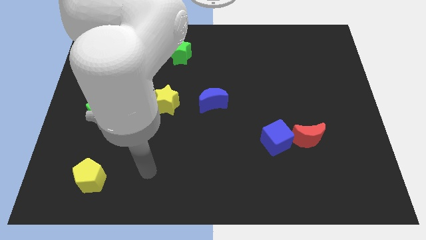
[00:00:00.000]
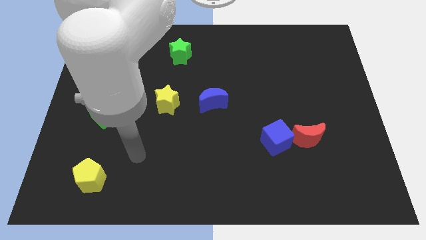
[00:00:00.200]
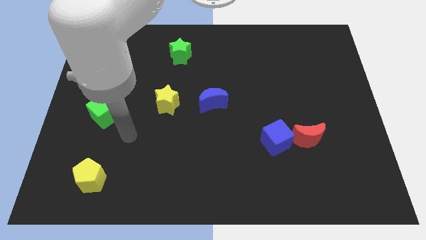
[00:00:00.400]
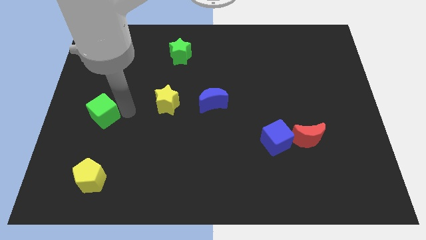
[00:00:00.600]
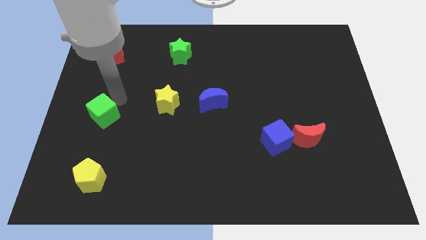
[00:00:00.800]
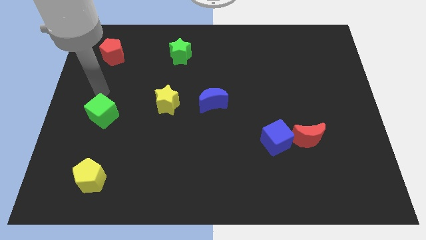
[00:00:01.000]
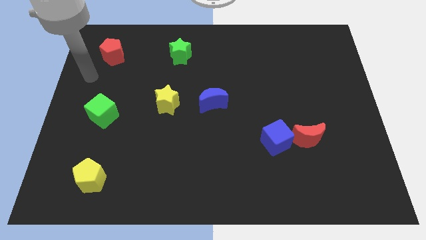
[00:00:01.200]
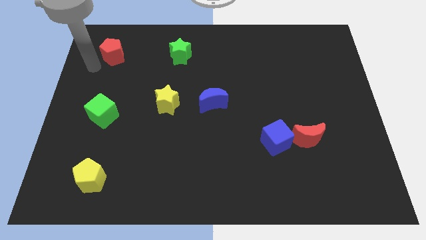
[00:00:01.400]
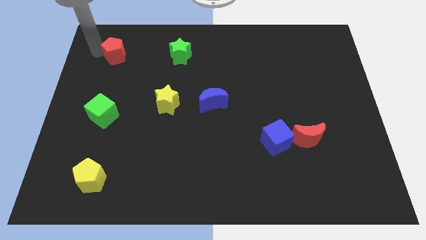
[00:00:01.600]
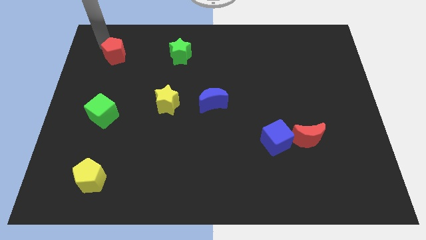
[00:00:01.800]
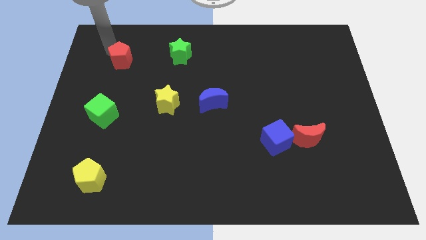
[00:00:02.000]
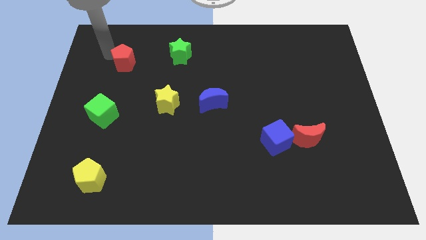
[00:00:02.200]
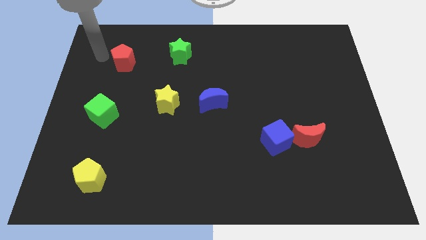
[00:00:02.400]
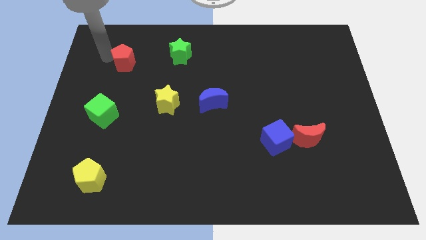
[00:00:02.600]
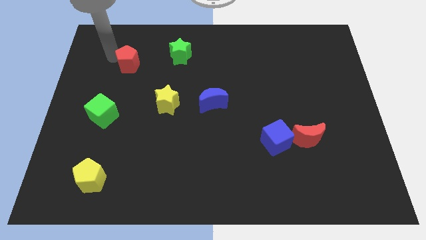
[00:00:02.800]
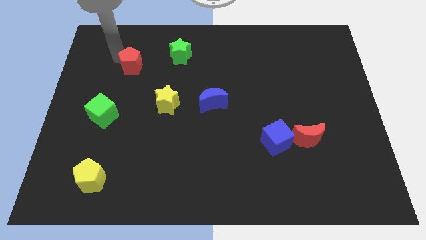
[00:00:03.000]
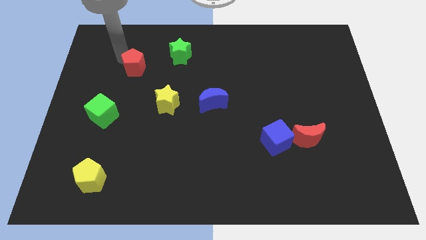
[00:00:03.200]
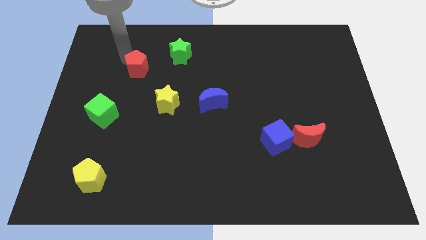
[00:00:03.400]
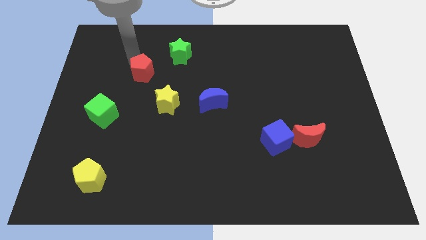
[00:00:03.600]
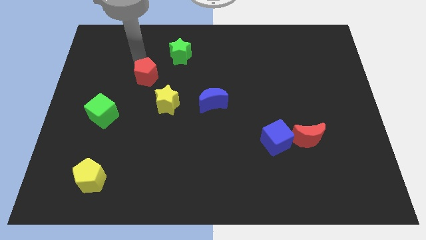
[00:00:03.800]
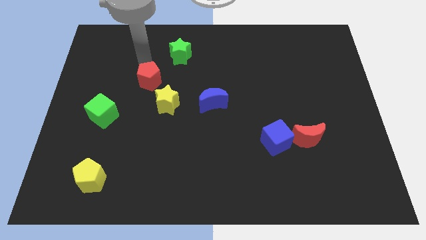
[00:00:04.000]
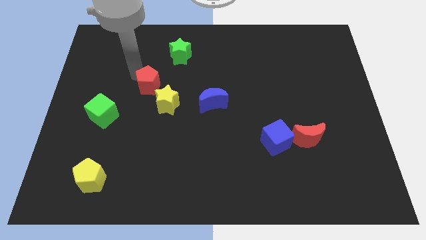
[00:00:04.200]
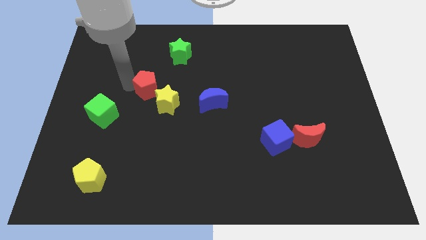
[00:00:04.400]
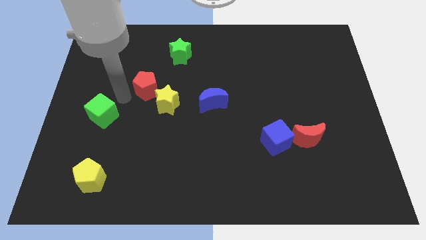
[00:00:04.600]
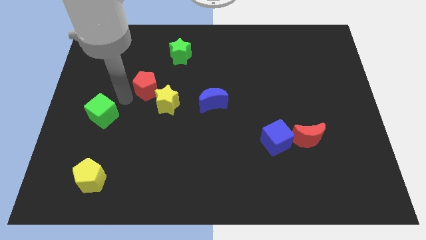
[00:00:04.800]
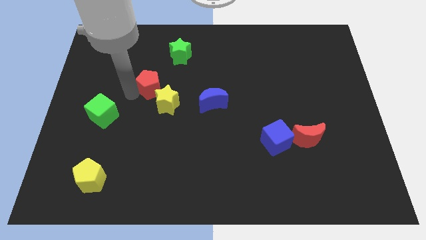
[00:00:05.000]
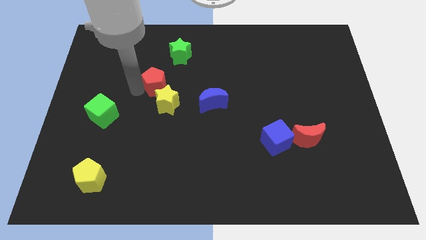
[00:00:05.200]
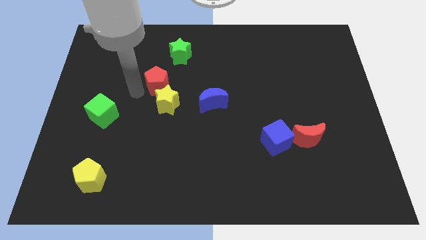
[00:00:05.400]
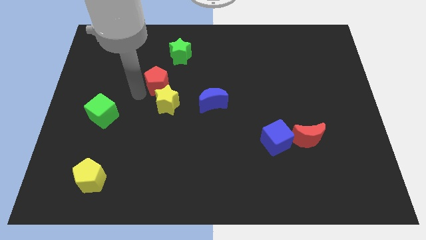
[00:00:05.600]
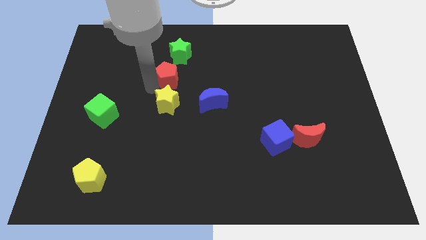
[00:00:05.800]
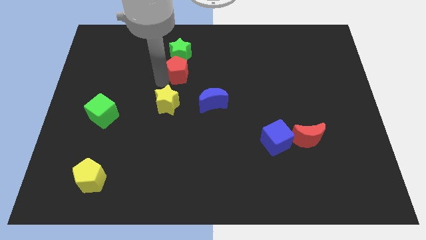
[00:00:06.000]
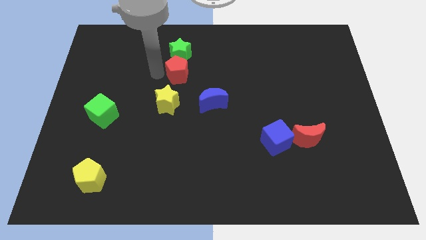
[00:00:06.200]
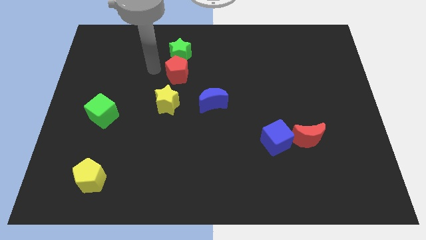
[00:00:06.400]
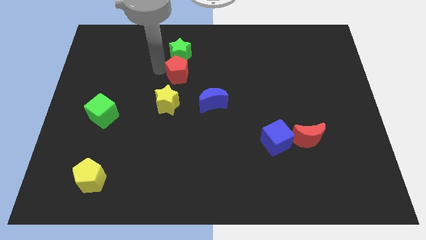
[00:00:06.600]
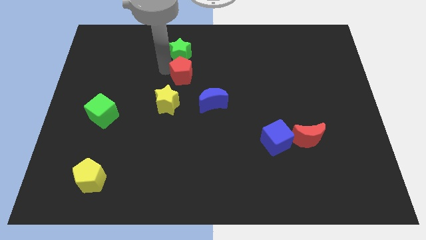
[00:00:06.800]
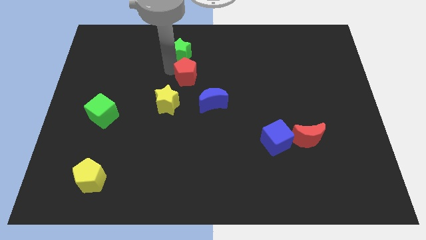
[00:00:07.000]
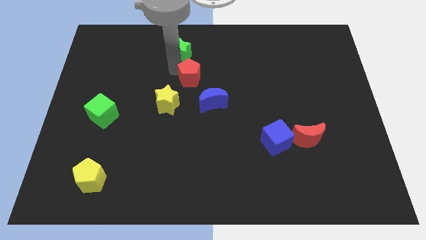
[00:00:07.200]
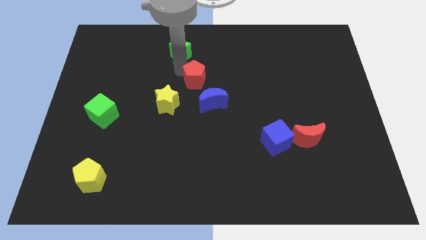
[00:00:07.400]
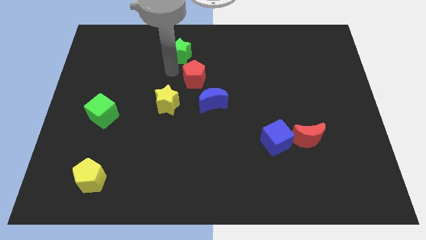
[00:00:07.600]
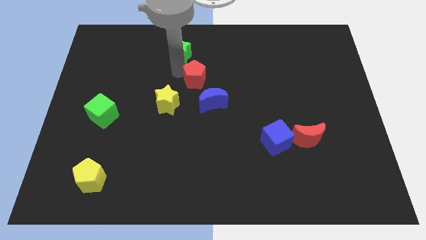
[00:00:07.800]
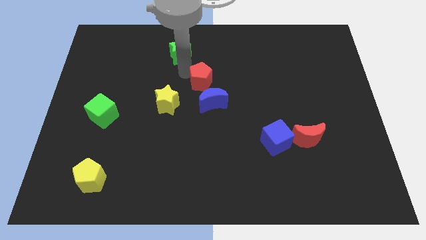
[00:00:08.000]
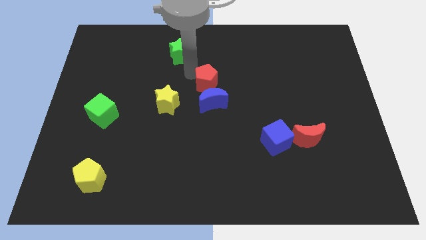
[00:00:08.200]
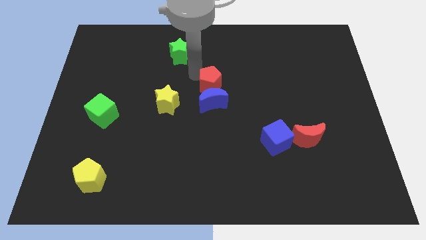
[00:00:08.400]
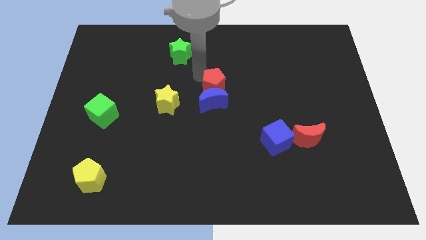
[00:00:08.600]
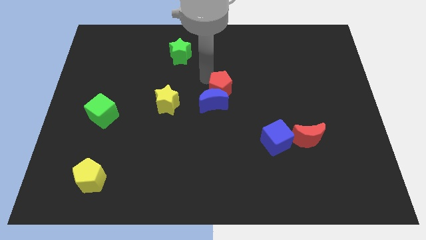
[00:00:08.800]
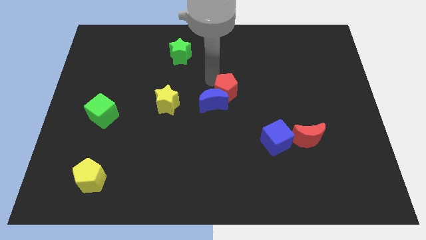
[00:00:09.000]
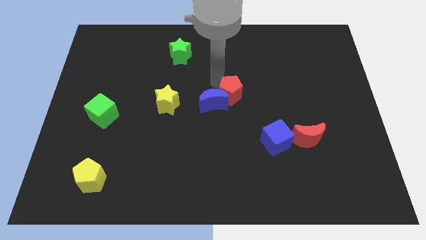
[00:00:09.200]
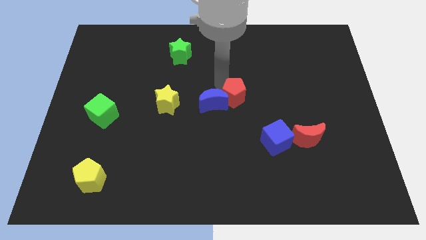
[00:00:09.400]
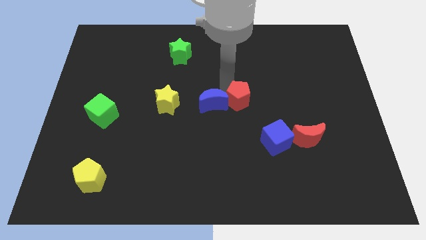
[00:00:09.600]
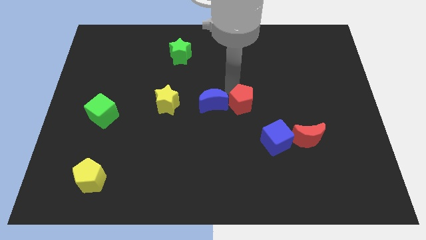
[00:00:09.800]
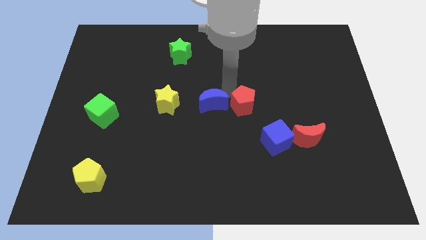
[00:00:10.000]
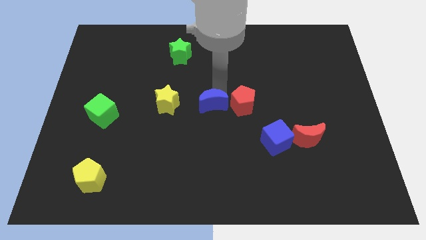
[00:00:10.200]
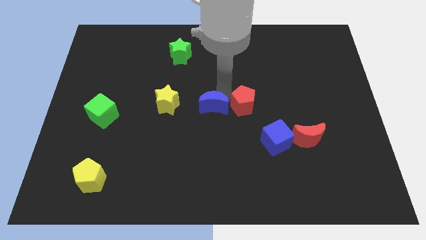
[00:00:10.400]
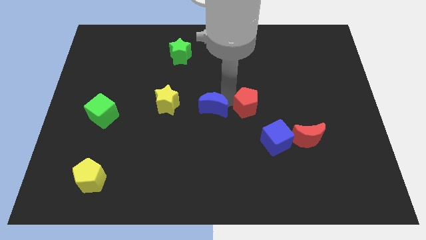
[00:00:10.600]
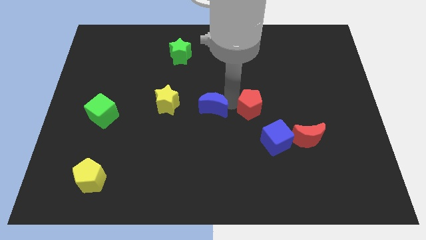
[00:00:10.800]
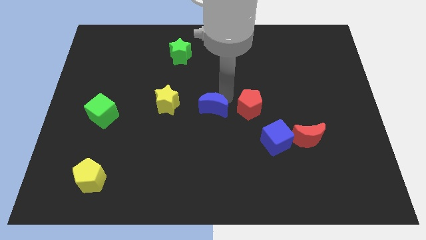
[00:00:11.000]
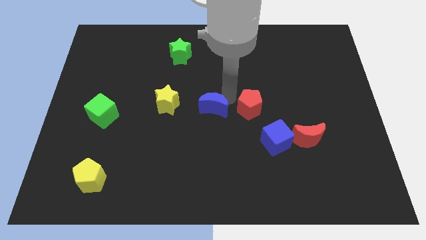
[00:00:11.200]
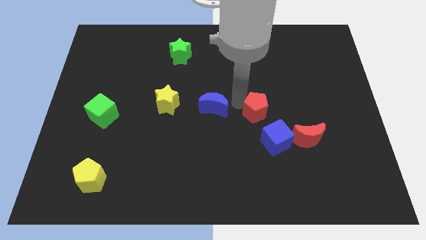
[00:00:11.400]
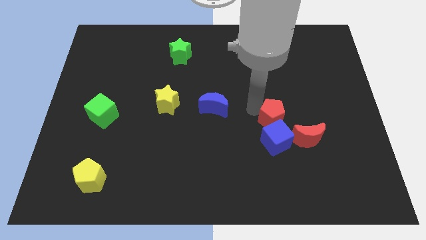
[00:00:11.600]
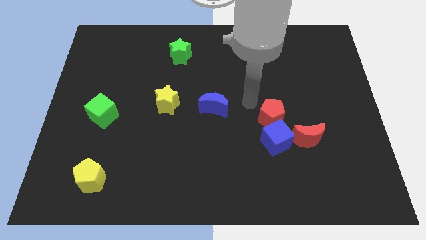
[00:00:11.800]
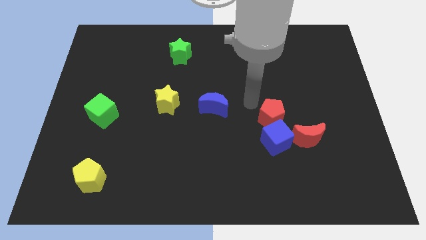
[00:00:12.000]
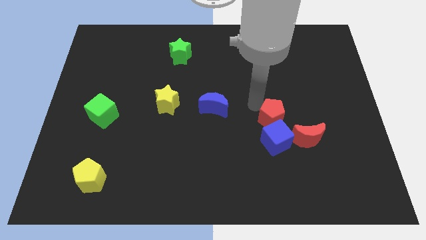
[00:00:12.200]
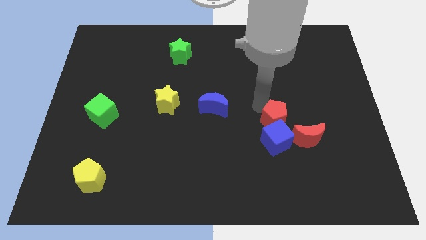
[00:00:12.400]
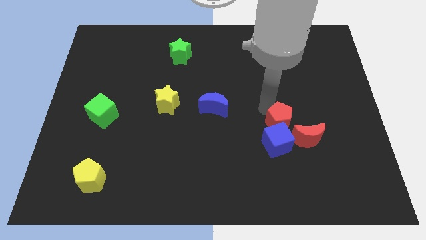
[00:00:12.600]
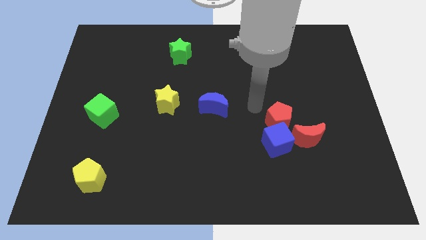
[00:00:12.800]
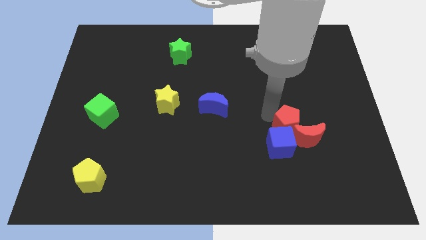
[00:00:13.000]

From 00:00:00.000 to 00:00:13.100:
put the red pentagon next to the red moon

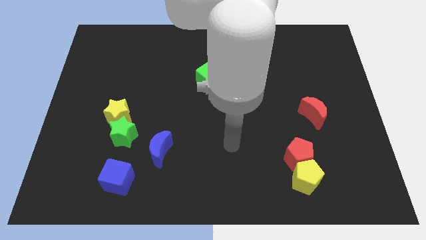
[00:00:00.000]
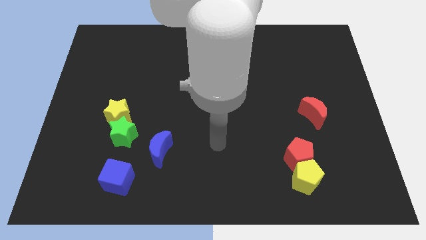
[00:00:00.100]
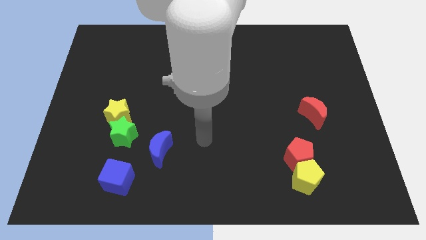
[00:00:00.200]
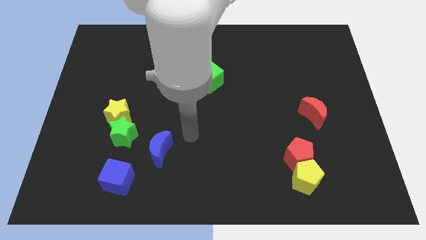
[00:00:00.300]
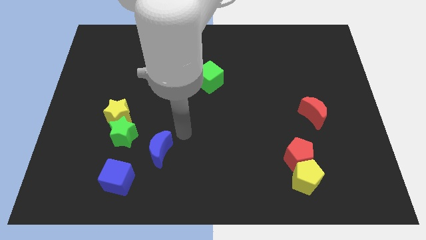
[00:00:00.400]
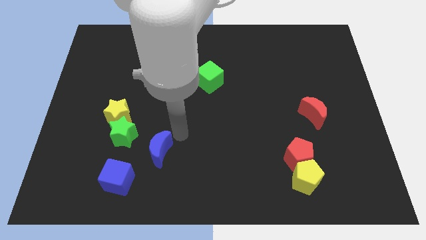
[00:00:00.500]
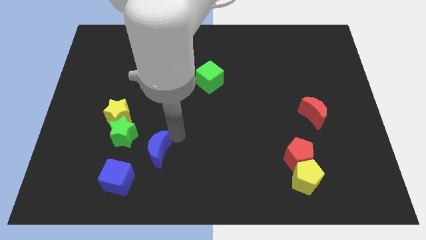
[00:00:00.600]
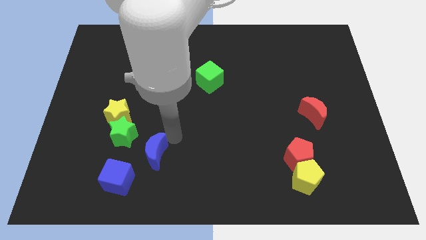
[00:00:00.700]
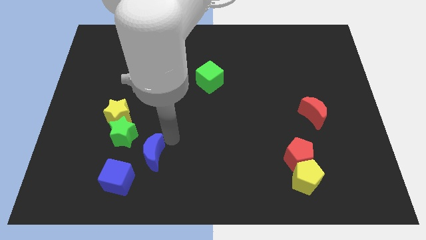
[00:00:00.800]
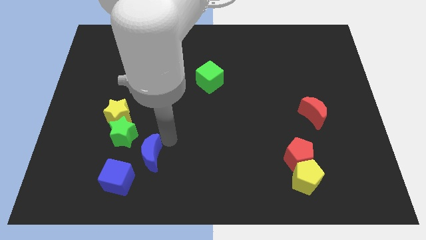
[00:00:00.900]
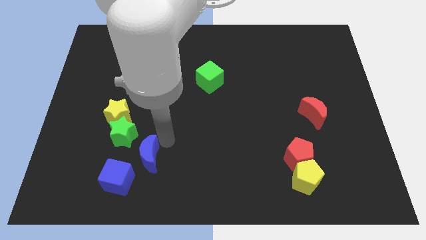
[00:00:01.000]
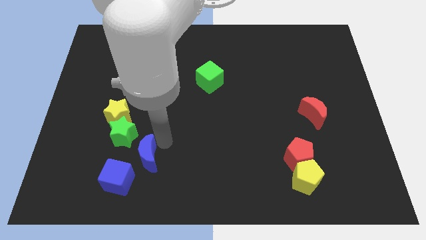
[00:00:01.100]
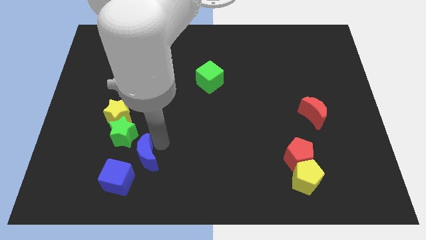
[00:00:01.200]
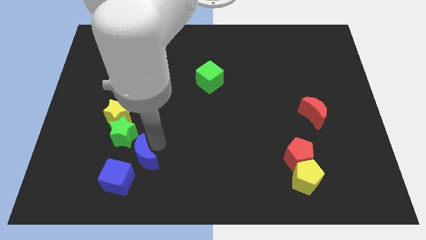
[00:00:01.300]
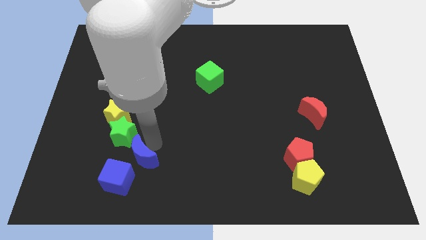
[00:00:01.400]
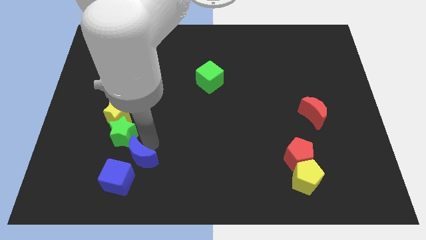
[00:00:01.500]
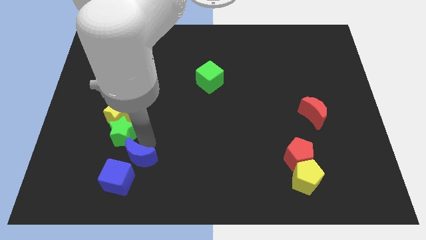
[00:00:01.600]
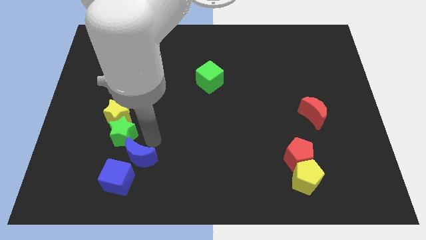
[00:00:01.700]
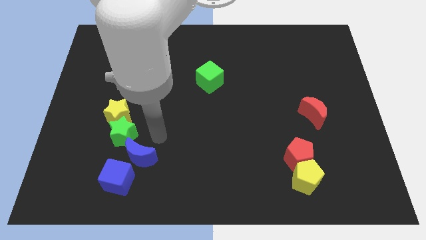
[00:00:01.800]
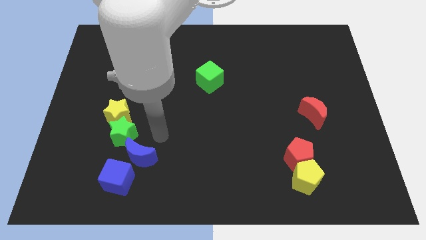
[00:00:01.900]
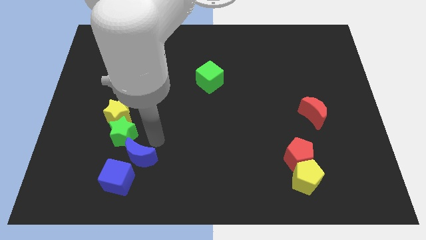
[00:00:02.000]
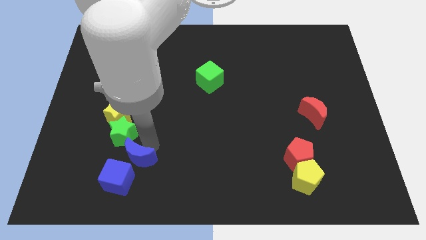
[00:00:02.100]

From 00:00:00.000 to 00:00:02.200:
slide the blue moon next to the blue cube
